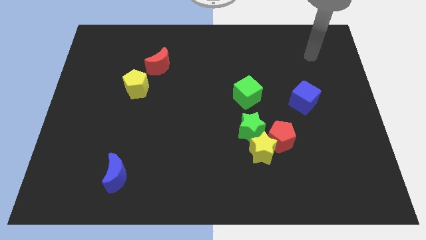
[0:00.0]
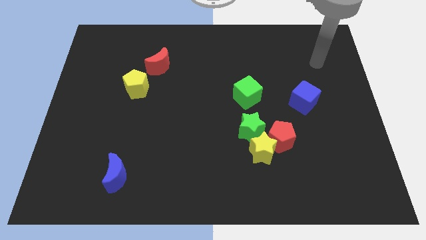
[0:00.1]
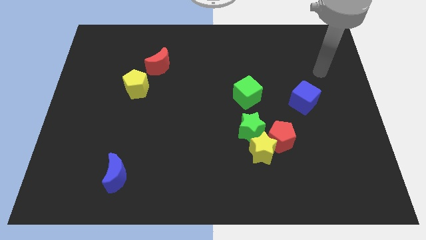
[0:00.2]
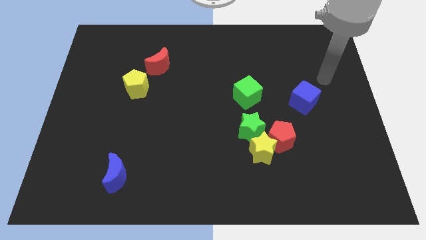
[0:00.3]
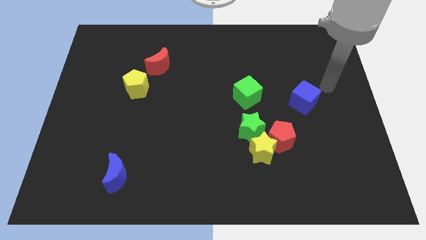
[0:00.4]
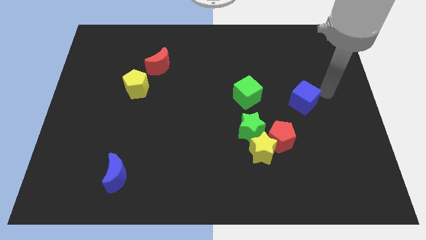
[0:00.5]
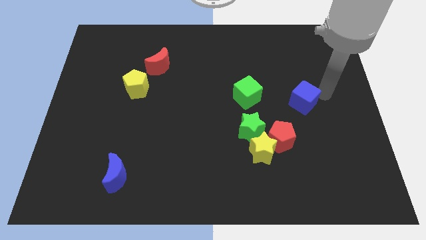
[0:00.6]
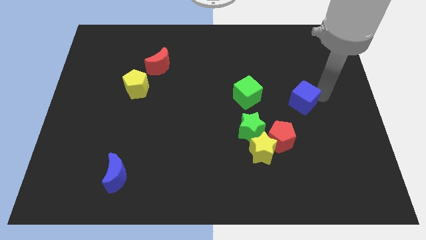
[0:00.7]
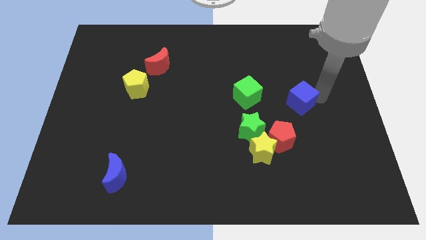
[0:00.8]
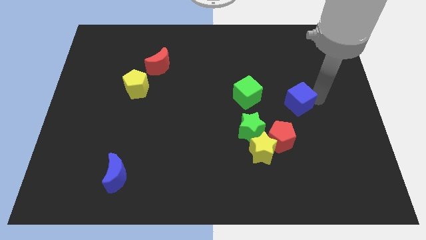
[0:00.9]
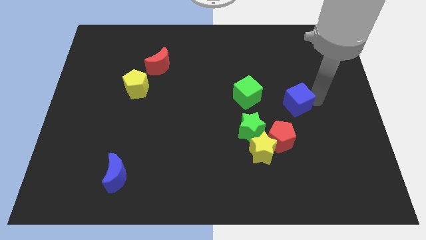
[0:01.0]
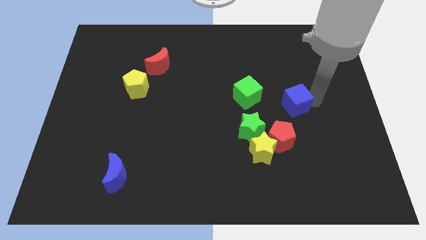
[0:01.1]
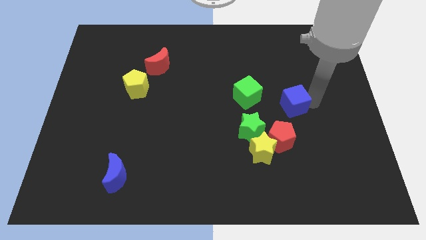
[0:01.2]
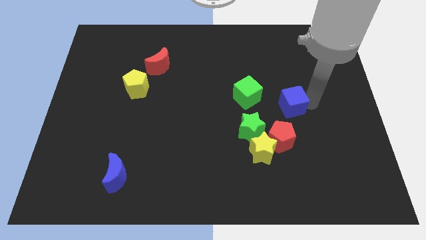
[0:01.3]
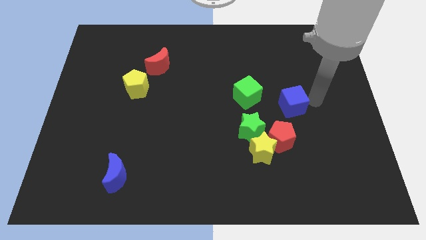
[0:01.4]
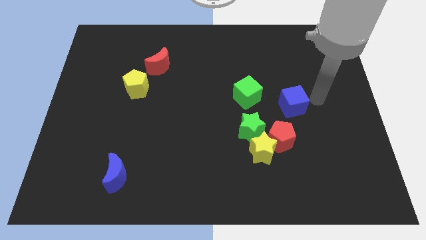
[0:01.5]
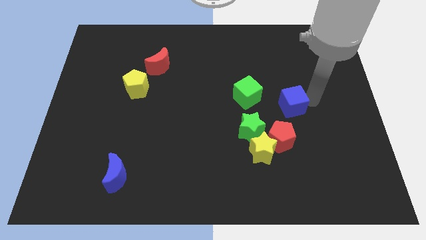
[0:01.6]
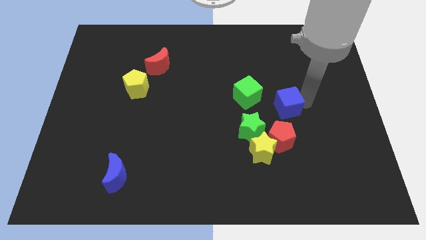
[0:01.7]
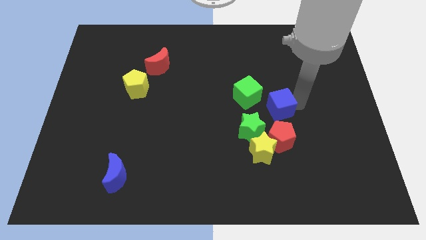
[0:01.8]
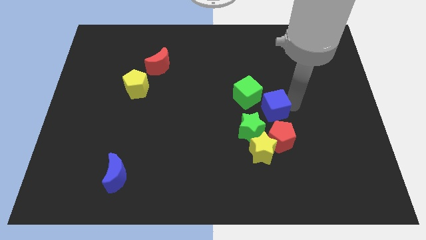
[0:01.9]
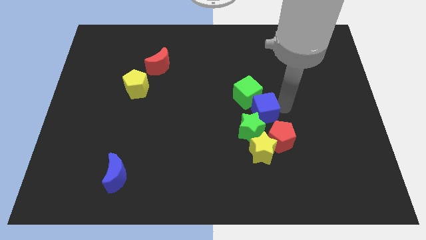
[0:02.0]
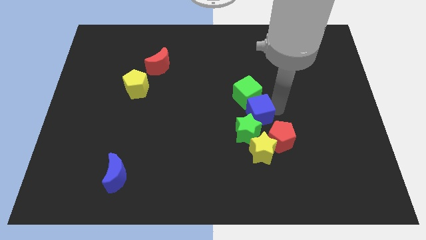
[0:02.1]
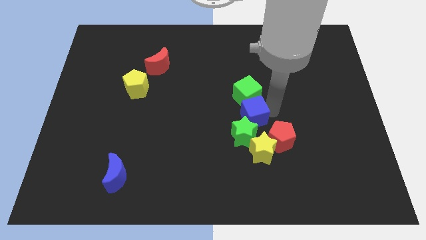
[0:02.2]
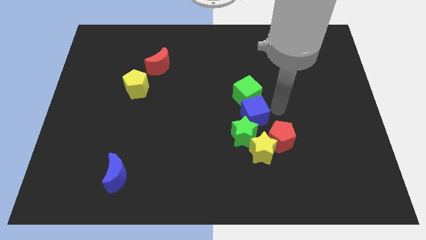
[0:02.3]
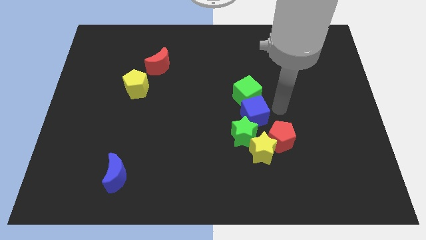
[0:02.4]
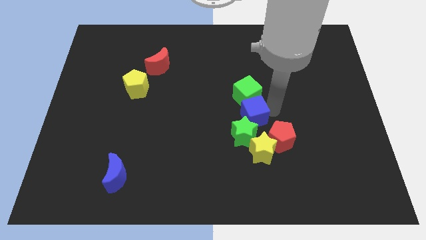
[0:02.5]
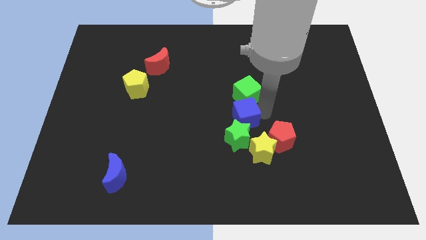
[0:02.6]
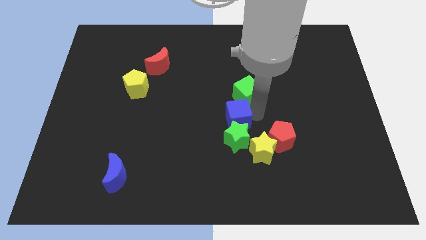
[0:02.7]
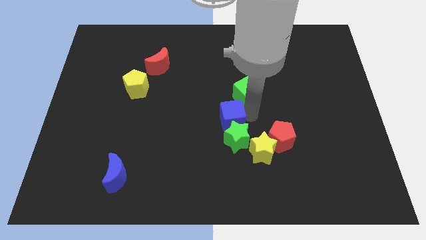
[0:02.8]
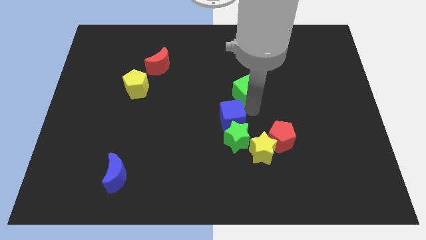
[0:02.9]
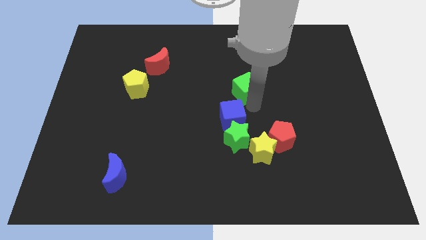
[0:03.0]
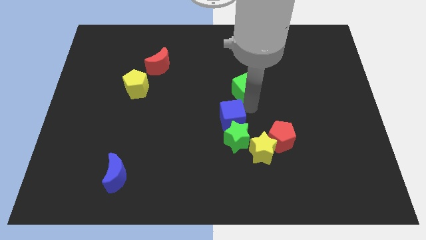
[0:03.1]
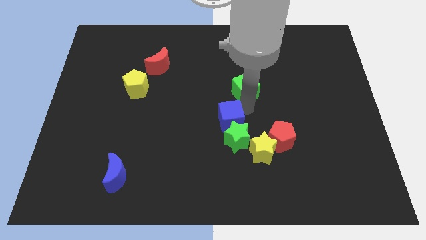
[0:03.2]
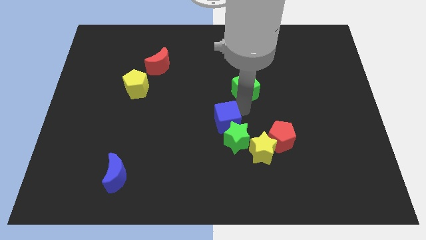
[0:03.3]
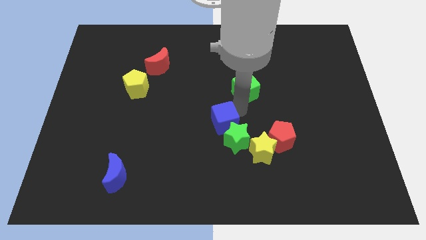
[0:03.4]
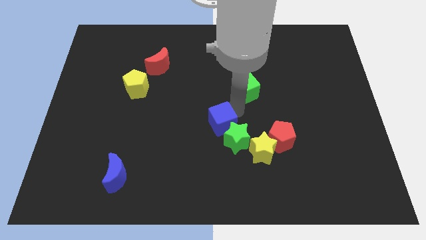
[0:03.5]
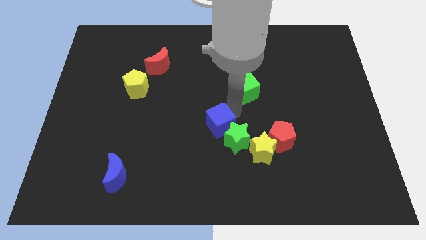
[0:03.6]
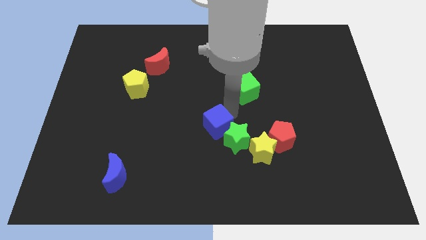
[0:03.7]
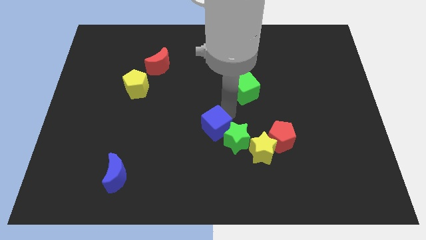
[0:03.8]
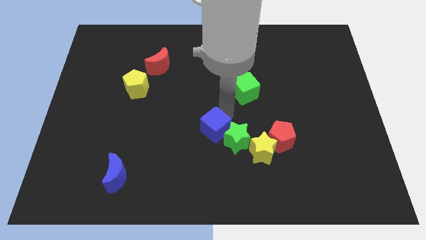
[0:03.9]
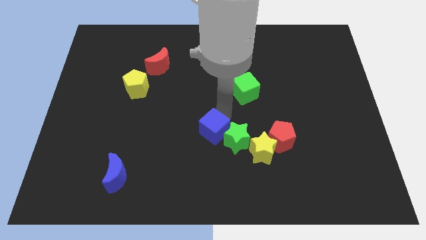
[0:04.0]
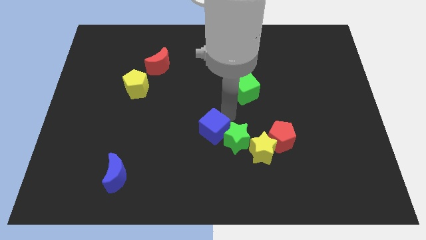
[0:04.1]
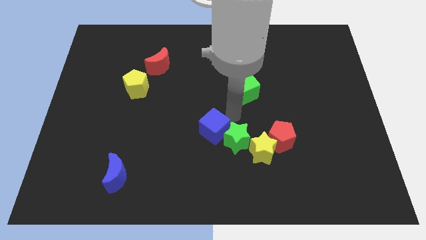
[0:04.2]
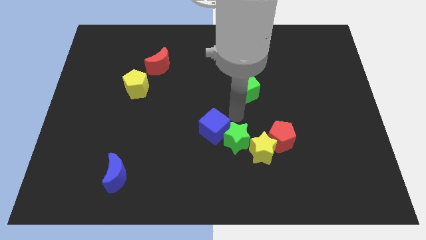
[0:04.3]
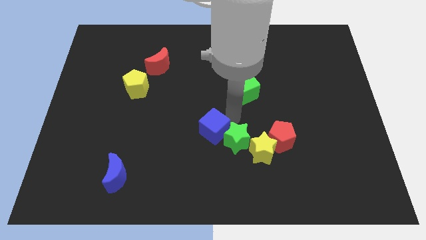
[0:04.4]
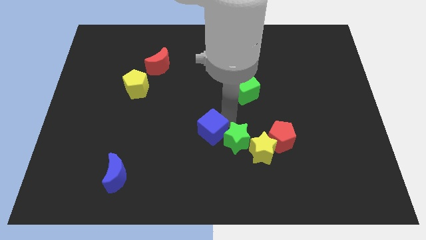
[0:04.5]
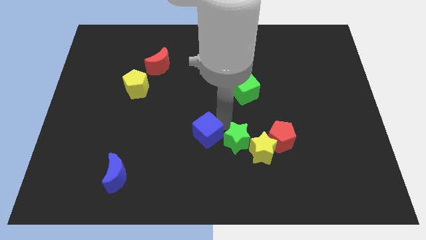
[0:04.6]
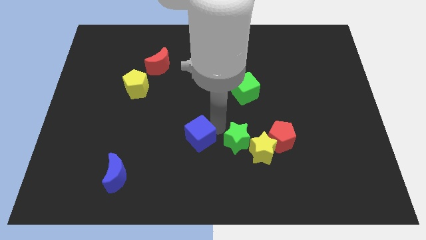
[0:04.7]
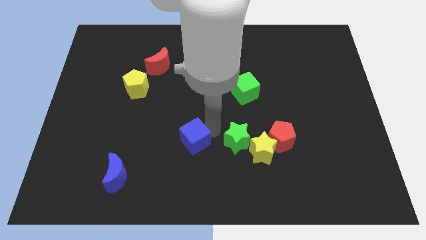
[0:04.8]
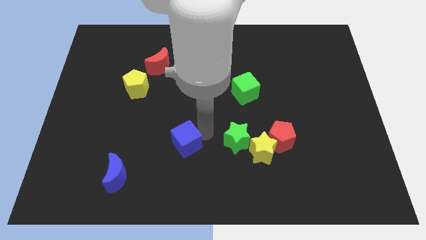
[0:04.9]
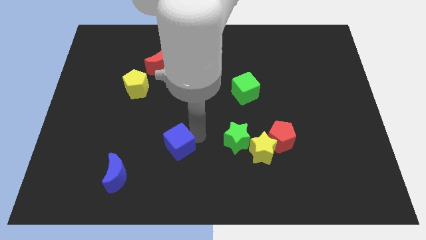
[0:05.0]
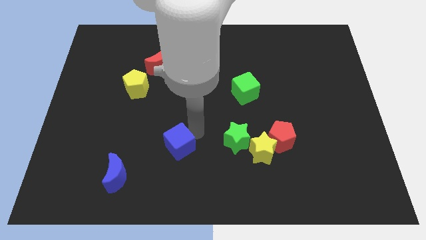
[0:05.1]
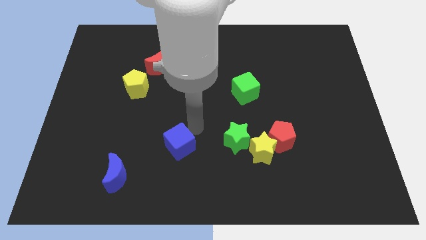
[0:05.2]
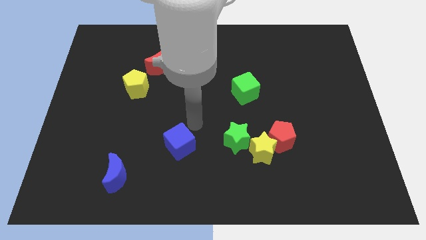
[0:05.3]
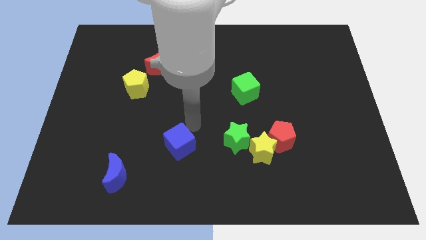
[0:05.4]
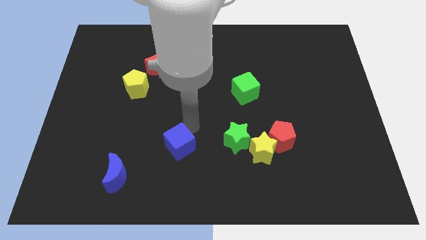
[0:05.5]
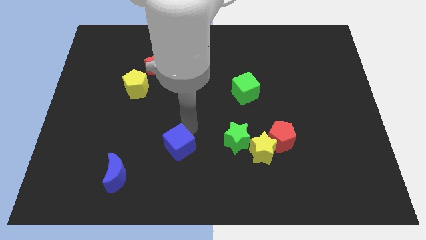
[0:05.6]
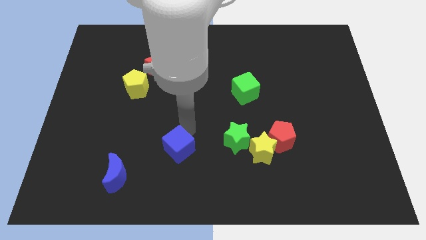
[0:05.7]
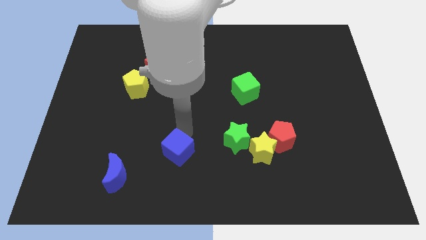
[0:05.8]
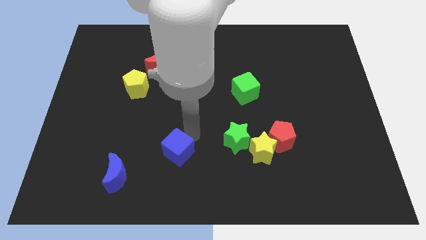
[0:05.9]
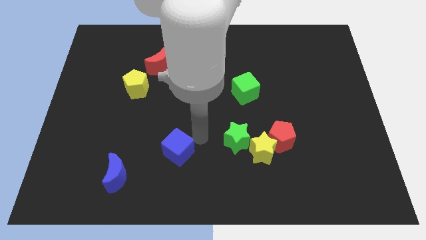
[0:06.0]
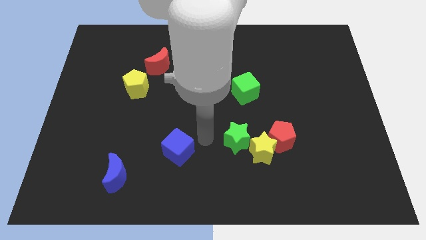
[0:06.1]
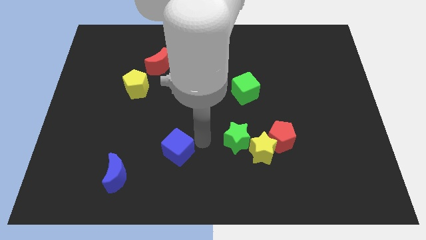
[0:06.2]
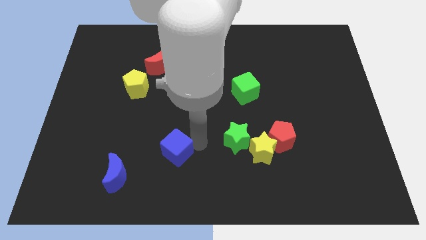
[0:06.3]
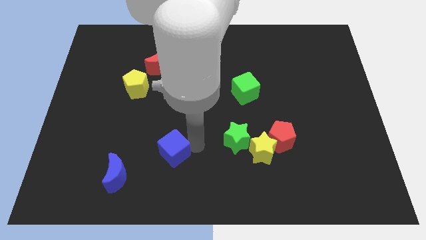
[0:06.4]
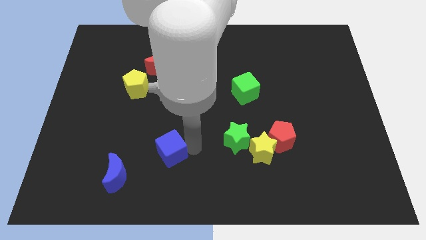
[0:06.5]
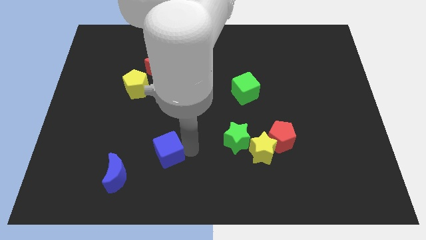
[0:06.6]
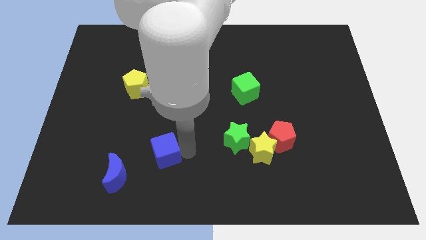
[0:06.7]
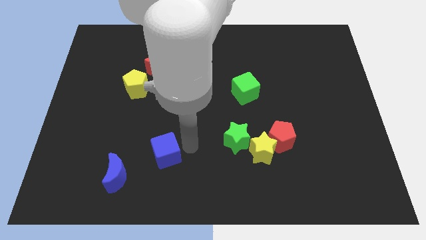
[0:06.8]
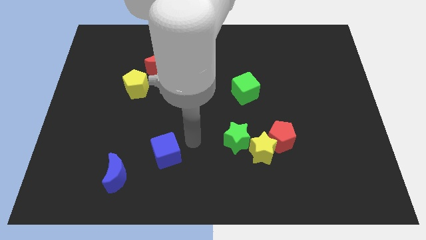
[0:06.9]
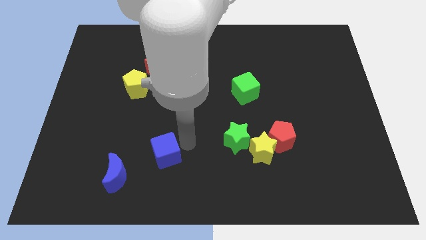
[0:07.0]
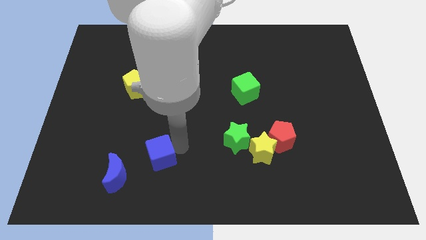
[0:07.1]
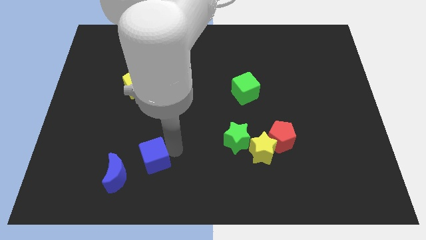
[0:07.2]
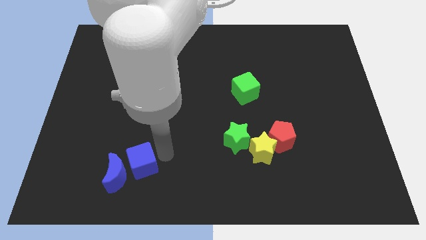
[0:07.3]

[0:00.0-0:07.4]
push the blue cube close to the blue moon
